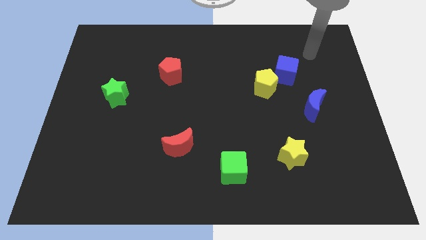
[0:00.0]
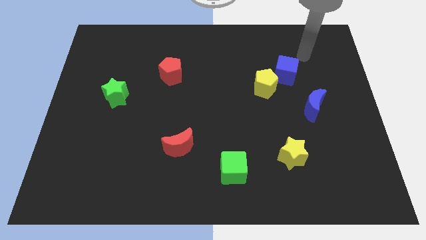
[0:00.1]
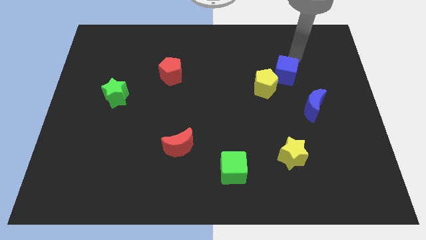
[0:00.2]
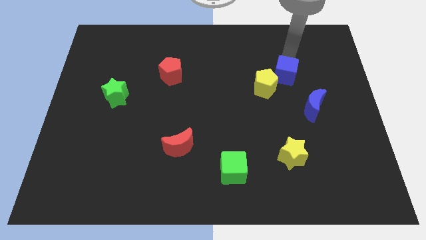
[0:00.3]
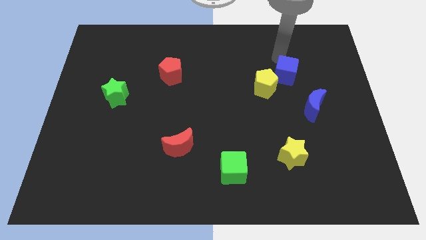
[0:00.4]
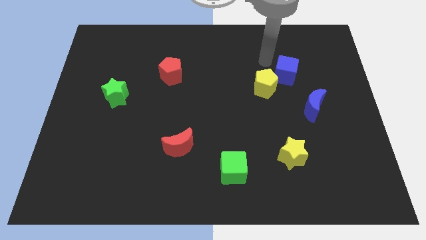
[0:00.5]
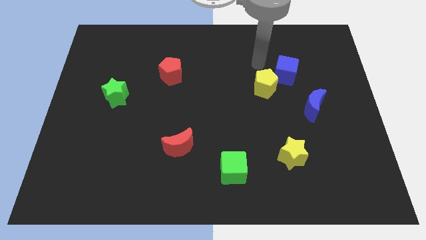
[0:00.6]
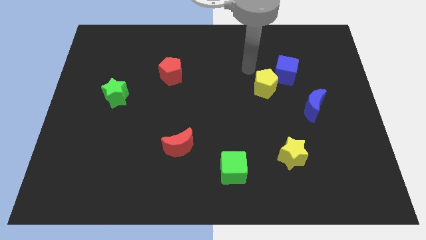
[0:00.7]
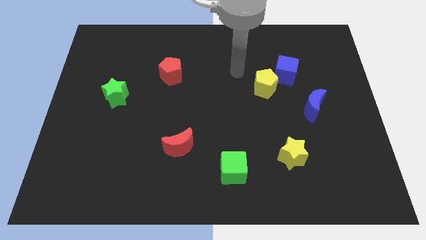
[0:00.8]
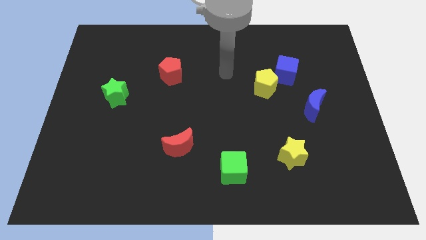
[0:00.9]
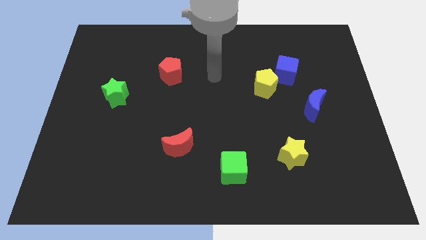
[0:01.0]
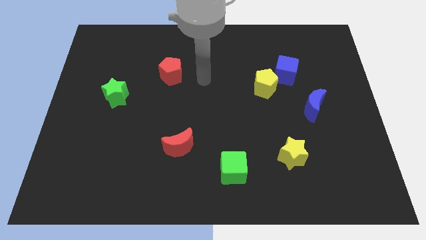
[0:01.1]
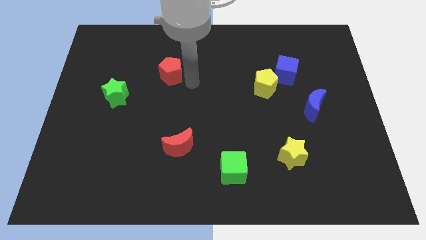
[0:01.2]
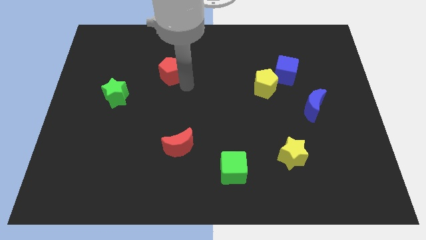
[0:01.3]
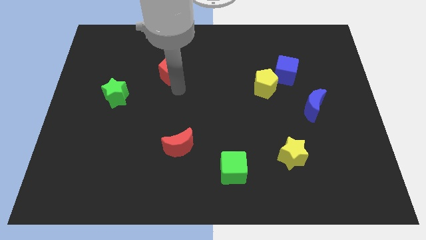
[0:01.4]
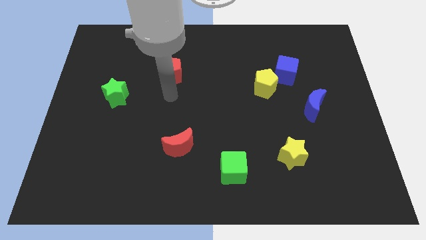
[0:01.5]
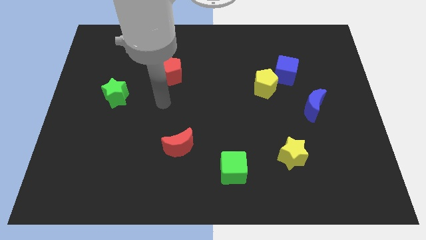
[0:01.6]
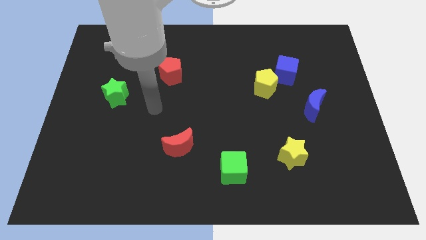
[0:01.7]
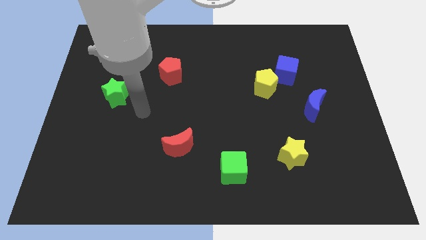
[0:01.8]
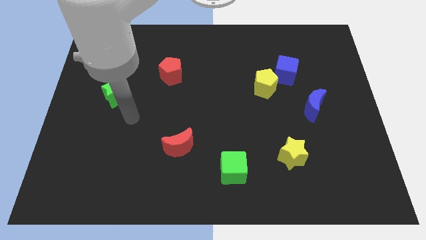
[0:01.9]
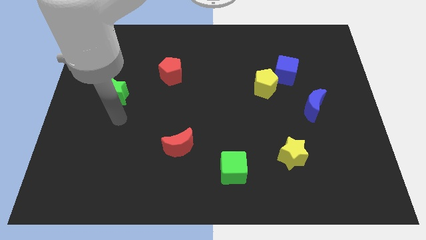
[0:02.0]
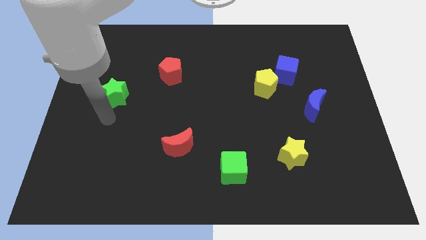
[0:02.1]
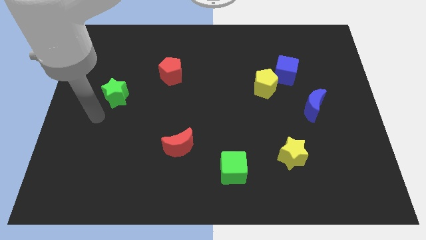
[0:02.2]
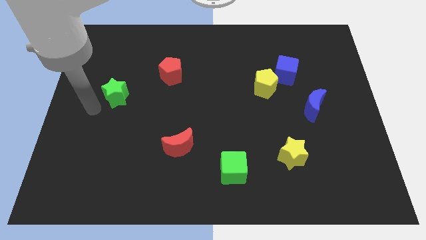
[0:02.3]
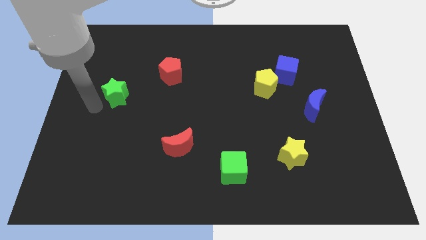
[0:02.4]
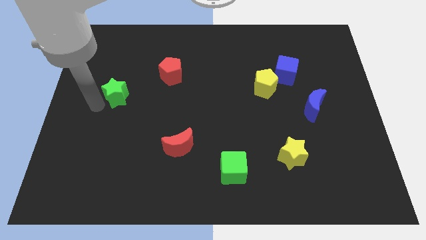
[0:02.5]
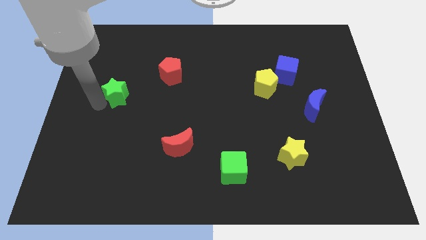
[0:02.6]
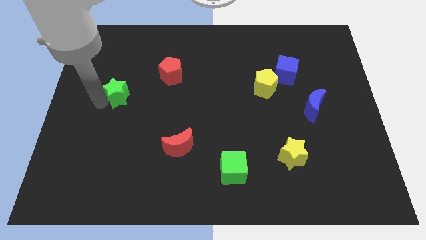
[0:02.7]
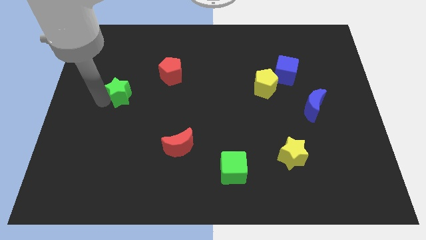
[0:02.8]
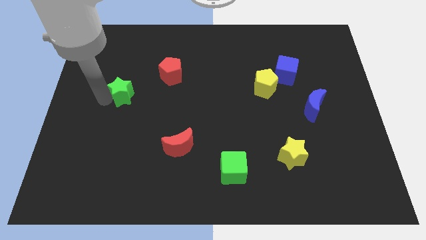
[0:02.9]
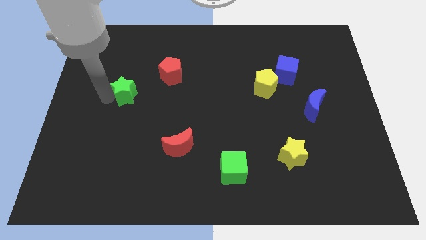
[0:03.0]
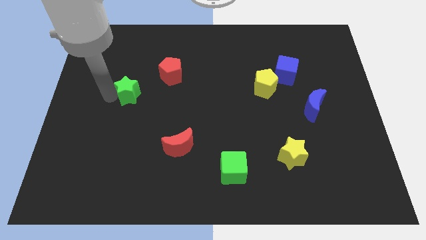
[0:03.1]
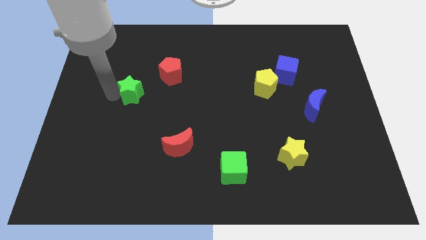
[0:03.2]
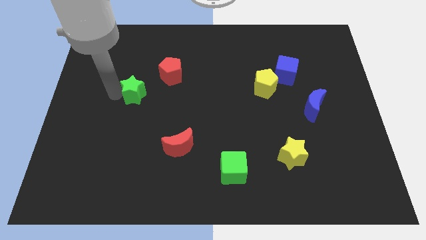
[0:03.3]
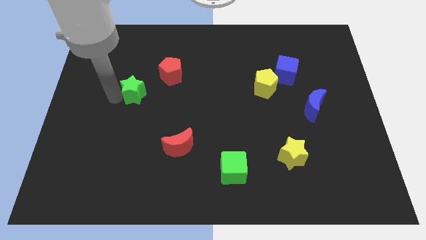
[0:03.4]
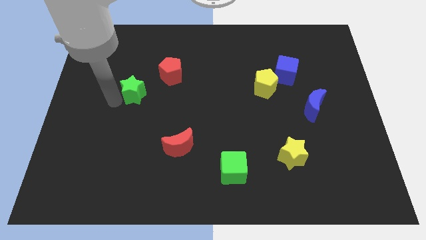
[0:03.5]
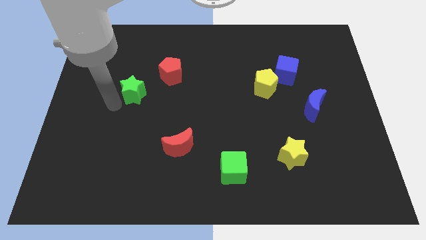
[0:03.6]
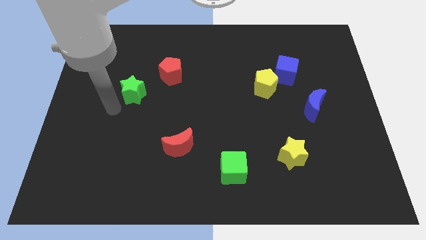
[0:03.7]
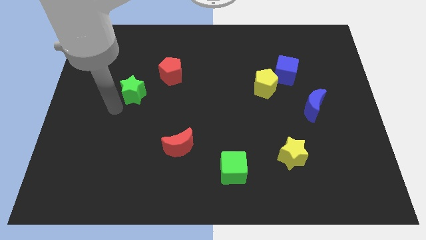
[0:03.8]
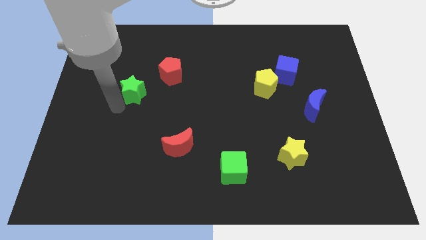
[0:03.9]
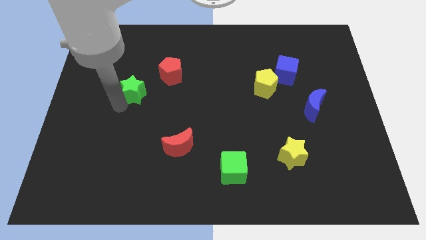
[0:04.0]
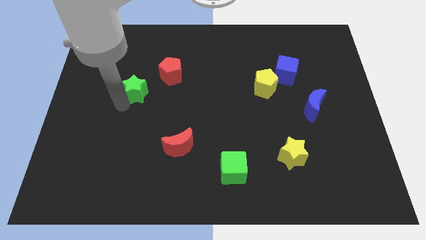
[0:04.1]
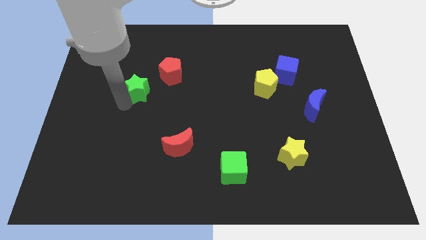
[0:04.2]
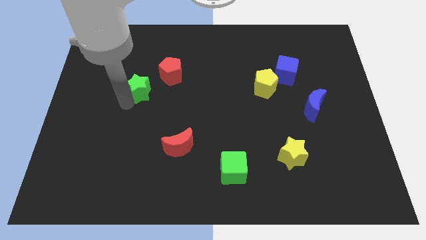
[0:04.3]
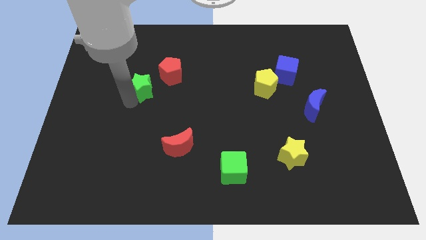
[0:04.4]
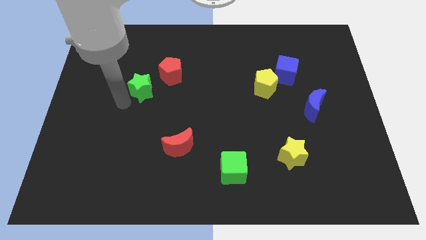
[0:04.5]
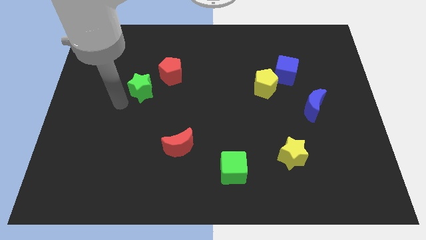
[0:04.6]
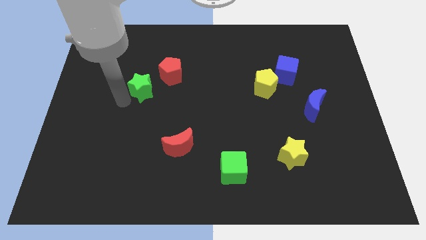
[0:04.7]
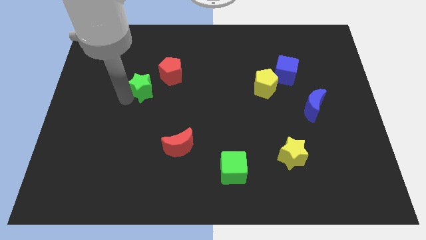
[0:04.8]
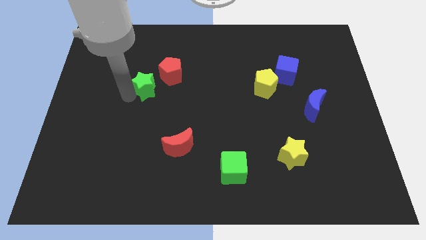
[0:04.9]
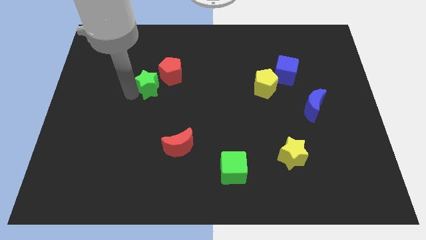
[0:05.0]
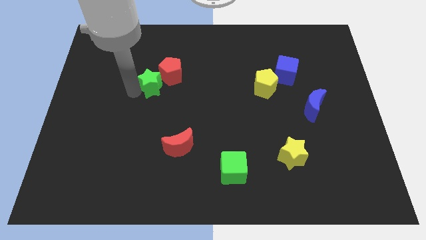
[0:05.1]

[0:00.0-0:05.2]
slide the green star close to the red pentagon

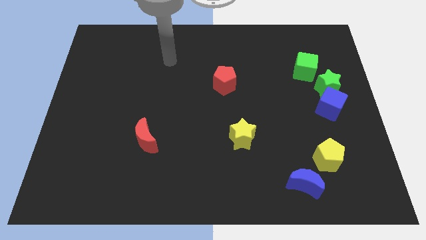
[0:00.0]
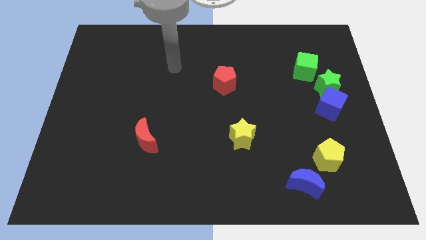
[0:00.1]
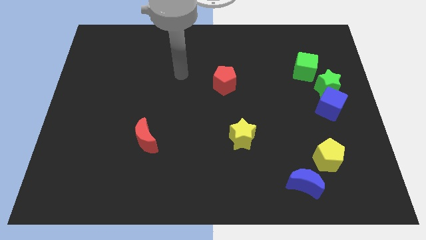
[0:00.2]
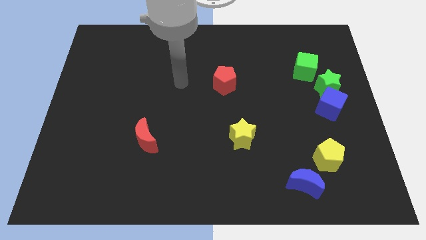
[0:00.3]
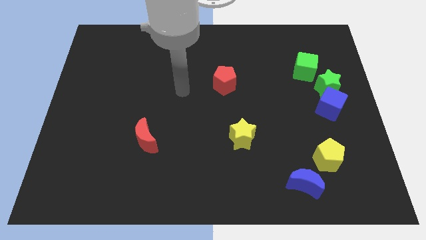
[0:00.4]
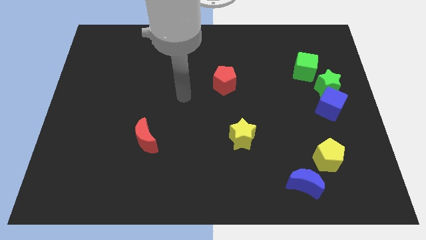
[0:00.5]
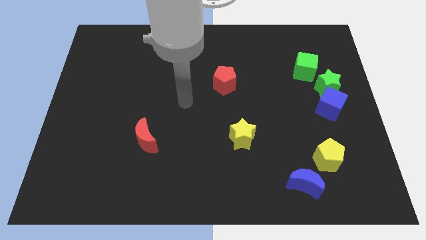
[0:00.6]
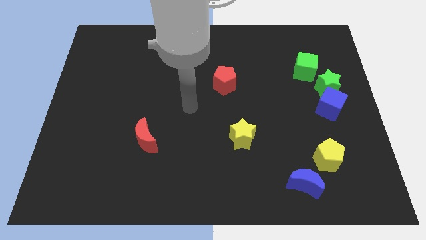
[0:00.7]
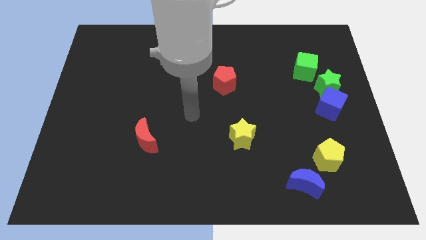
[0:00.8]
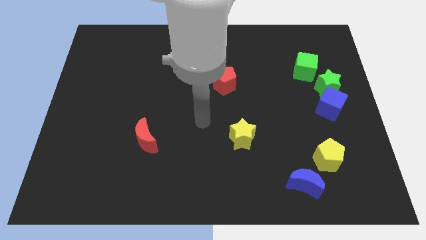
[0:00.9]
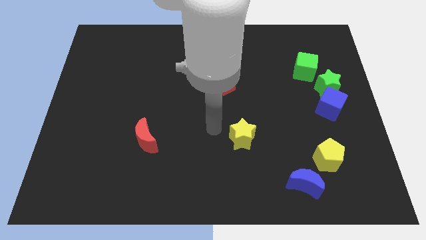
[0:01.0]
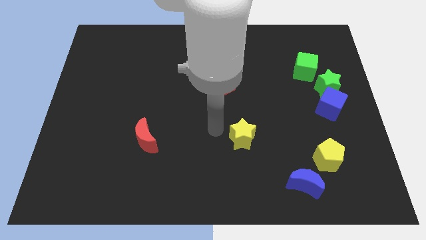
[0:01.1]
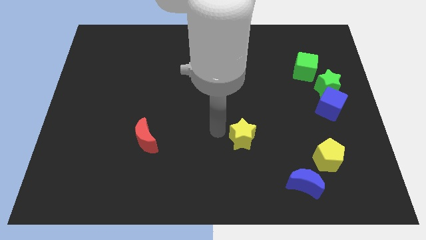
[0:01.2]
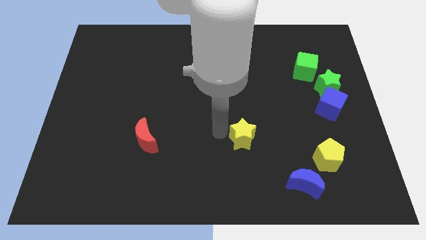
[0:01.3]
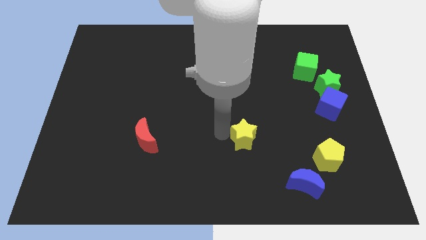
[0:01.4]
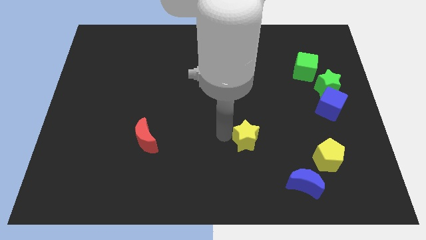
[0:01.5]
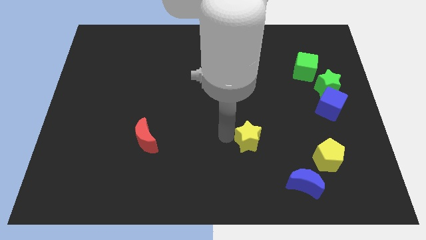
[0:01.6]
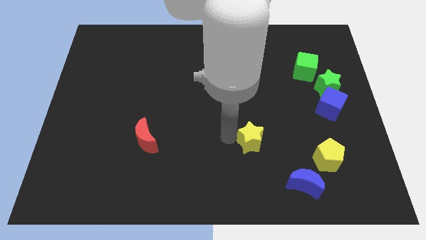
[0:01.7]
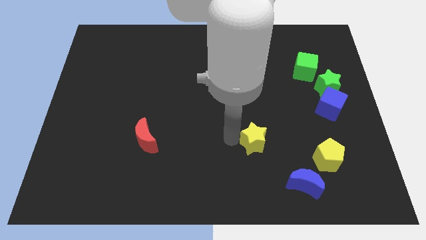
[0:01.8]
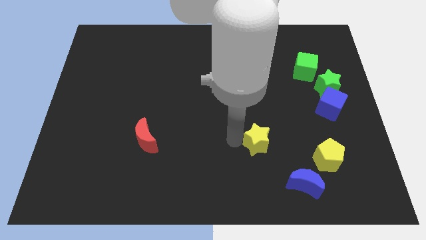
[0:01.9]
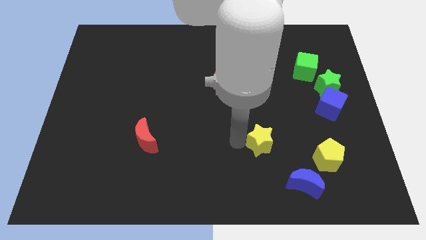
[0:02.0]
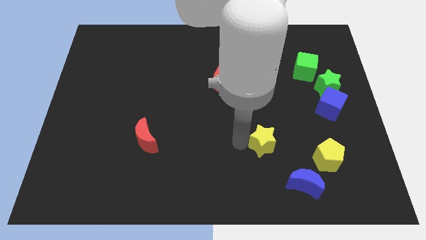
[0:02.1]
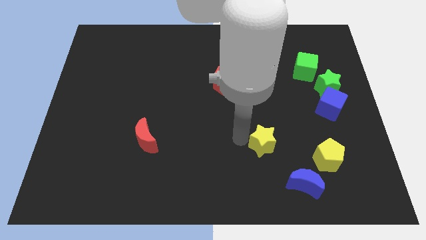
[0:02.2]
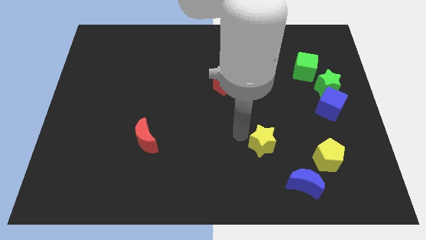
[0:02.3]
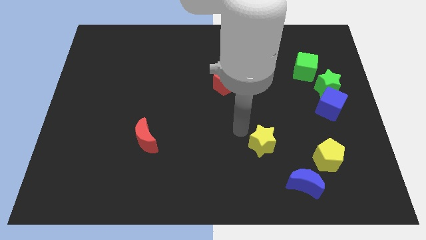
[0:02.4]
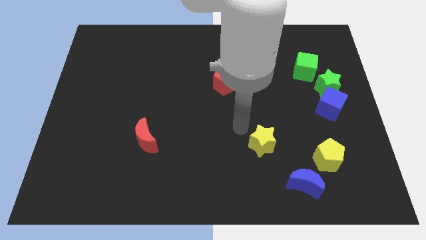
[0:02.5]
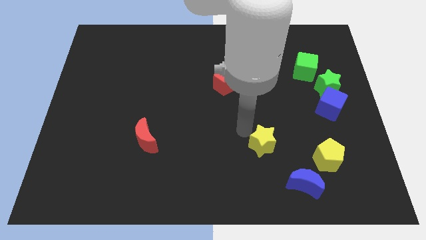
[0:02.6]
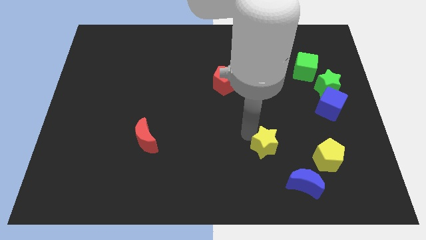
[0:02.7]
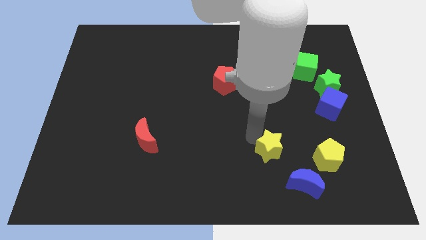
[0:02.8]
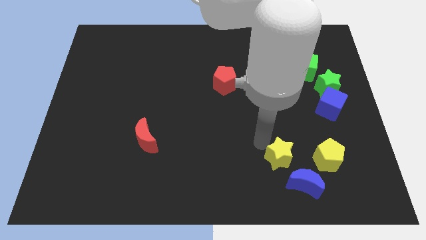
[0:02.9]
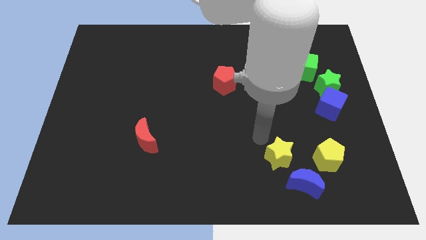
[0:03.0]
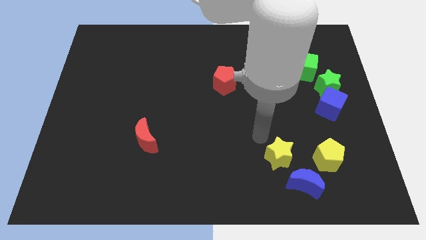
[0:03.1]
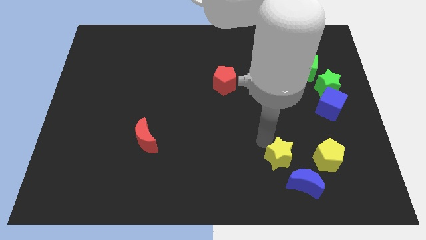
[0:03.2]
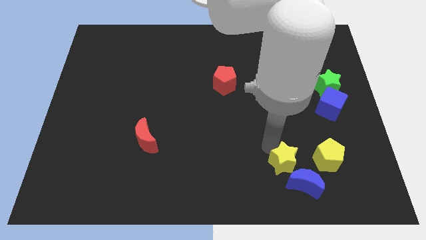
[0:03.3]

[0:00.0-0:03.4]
move the yellow star close to the blue moon
